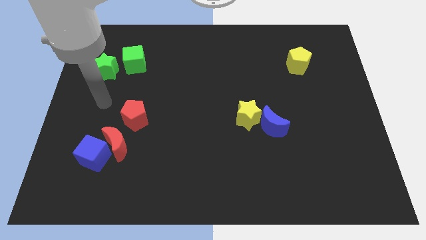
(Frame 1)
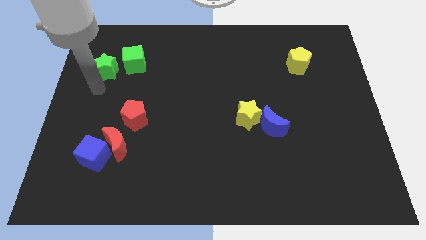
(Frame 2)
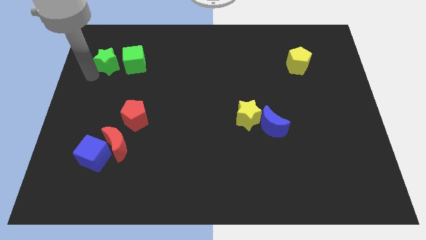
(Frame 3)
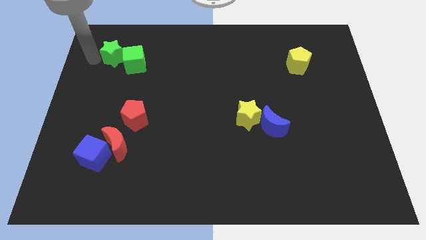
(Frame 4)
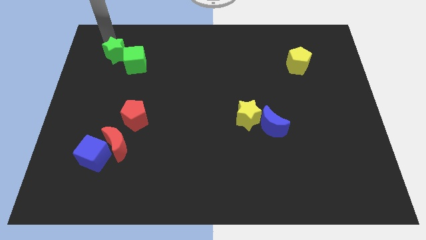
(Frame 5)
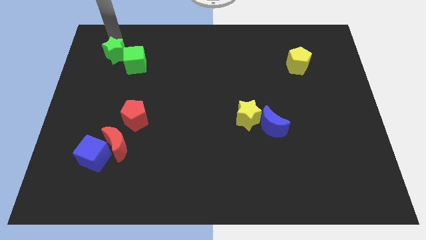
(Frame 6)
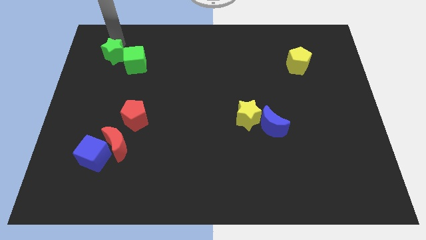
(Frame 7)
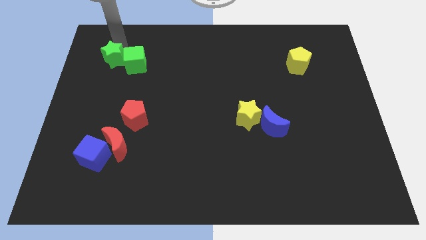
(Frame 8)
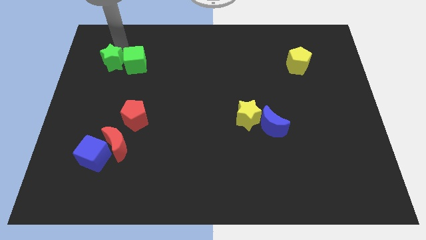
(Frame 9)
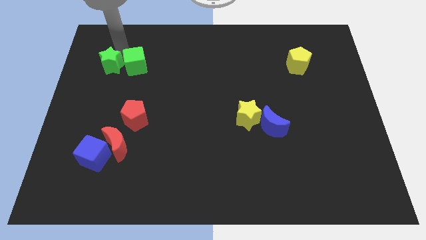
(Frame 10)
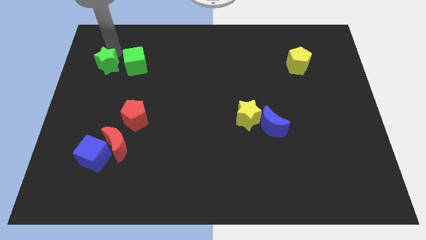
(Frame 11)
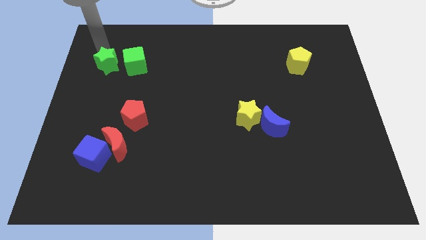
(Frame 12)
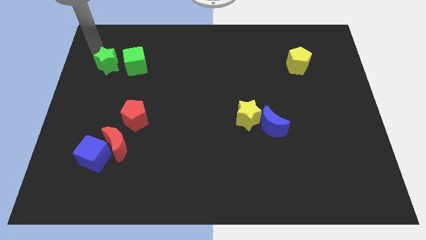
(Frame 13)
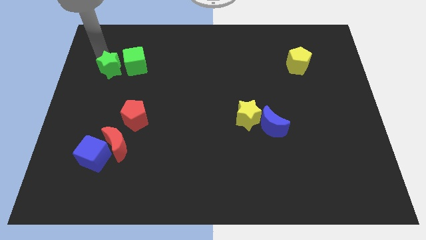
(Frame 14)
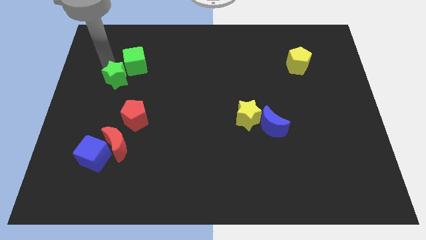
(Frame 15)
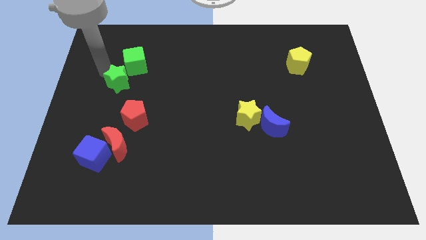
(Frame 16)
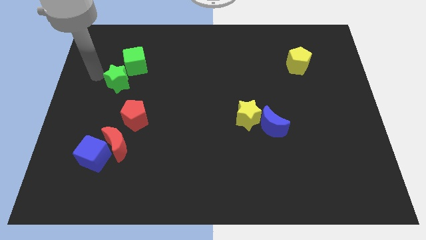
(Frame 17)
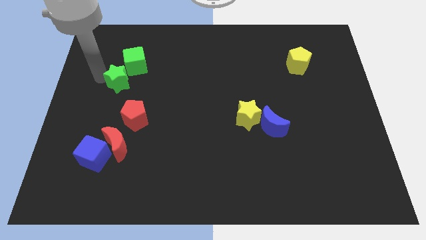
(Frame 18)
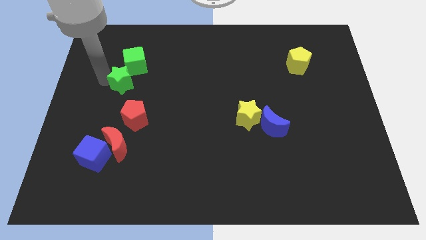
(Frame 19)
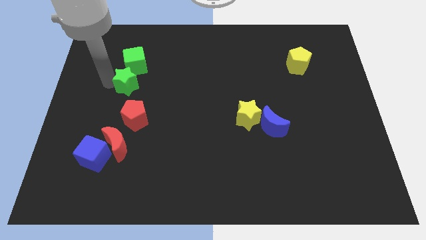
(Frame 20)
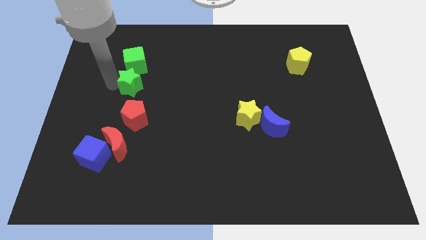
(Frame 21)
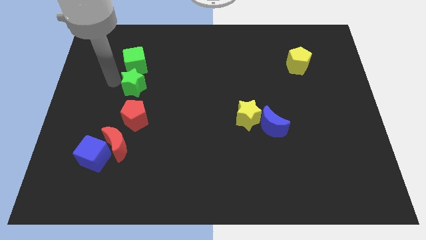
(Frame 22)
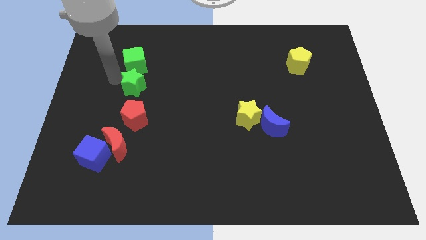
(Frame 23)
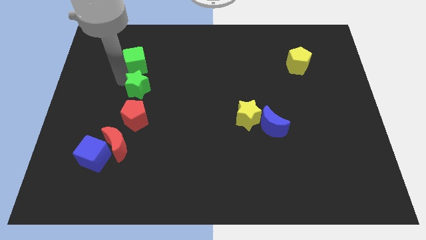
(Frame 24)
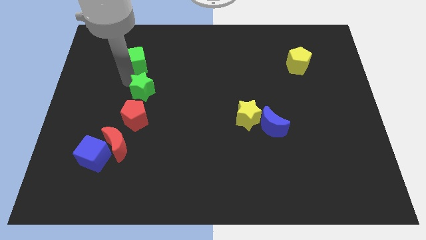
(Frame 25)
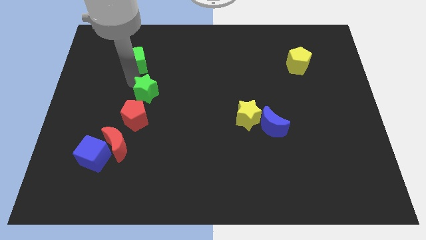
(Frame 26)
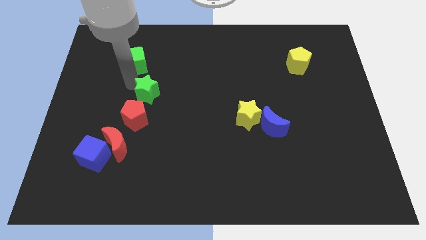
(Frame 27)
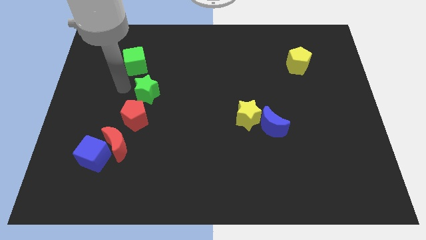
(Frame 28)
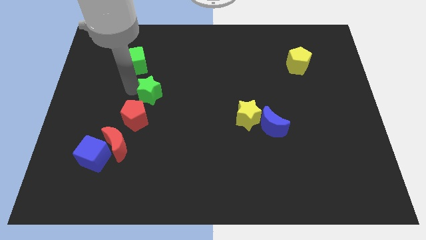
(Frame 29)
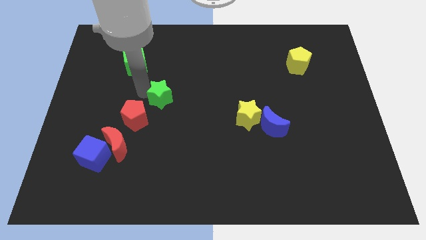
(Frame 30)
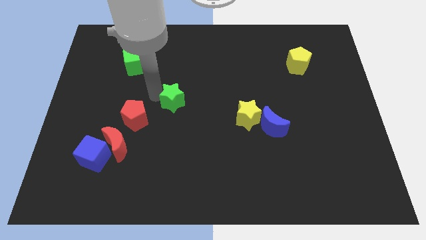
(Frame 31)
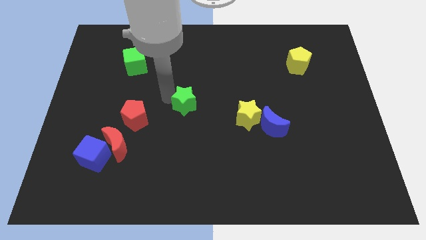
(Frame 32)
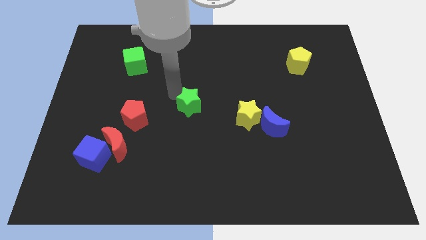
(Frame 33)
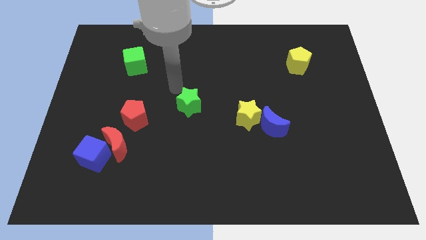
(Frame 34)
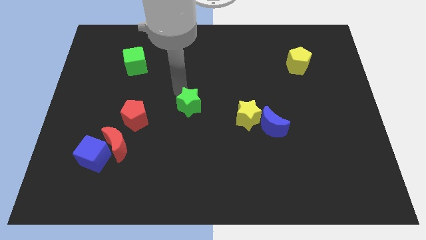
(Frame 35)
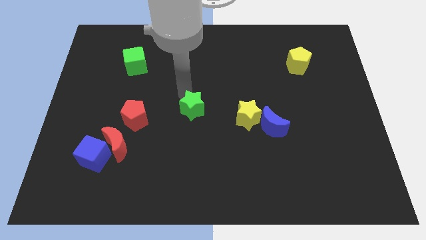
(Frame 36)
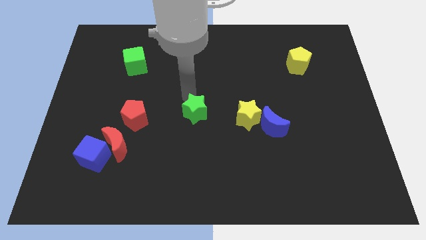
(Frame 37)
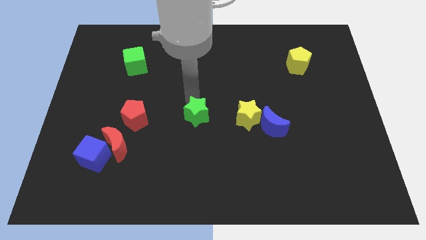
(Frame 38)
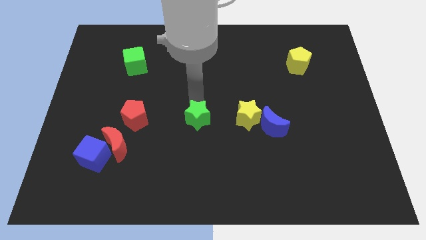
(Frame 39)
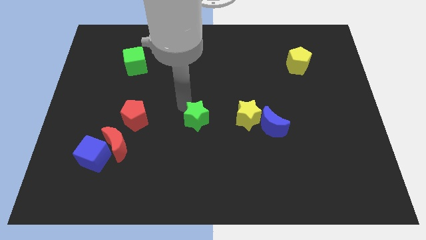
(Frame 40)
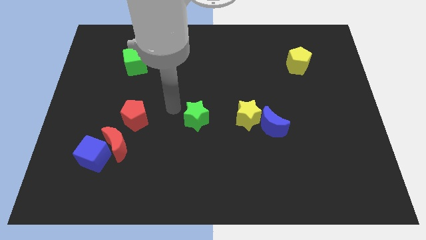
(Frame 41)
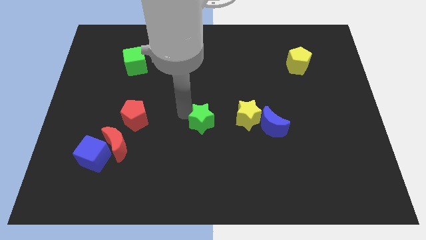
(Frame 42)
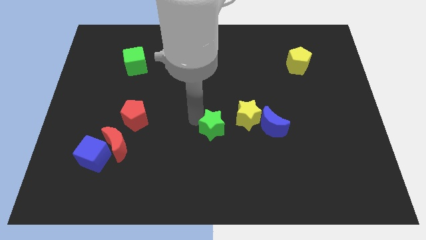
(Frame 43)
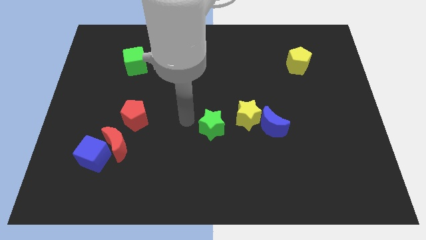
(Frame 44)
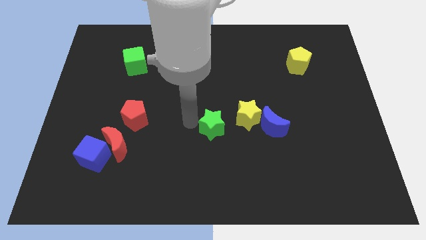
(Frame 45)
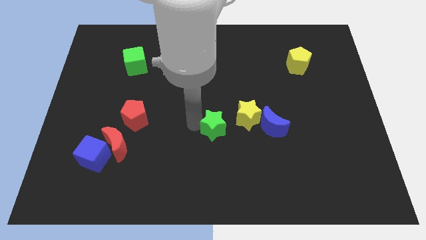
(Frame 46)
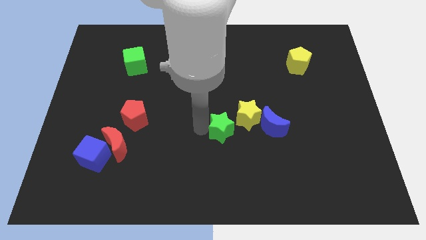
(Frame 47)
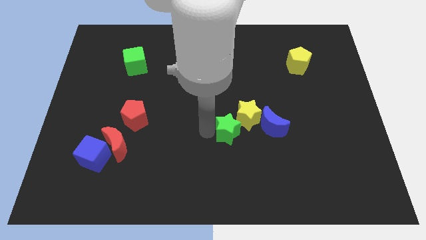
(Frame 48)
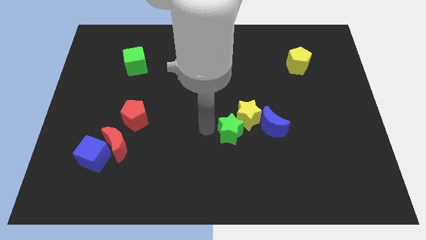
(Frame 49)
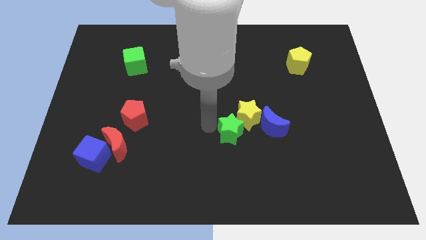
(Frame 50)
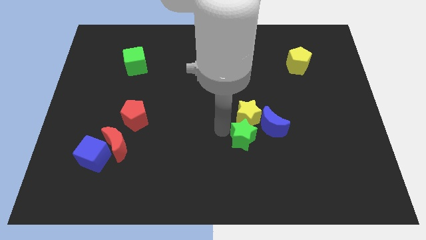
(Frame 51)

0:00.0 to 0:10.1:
push the green star to the bottom right side of the yellow star

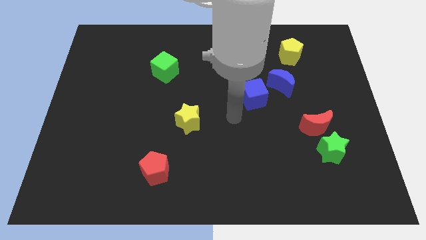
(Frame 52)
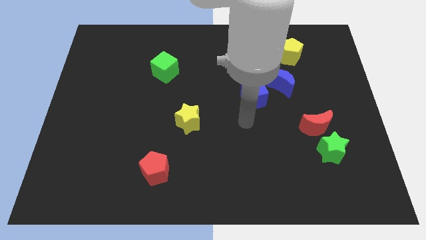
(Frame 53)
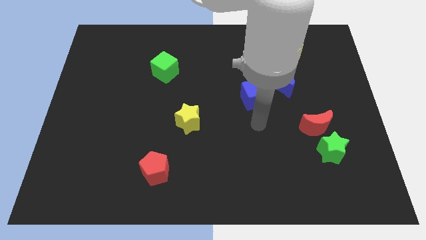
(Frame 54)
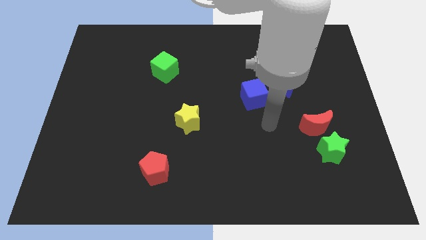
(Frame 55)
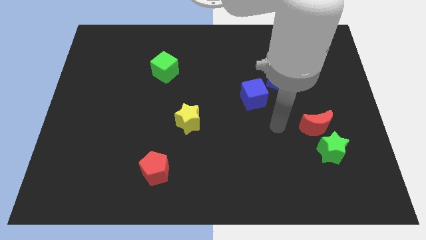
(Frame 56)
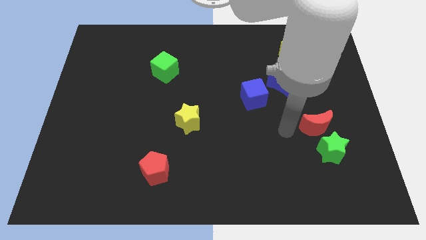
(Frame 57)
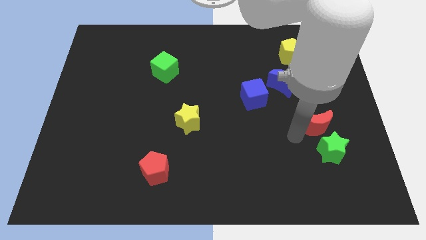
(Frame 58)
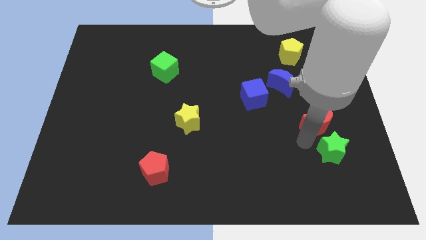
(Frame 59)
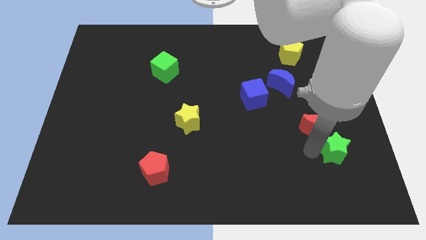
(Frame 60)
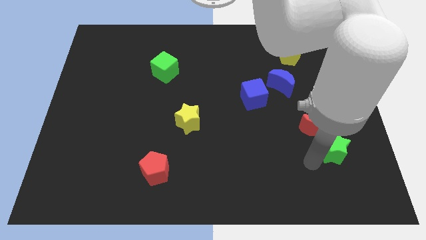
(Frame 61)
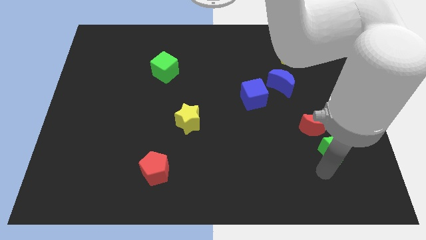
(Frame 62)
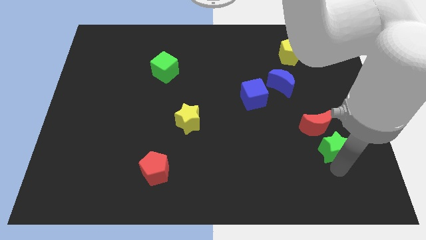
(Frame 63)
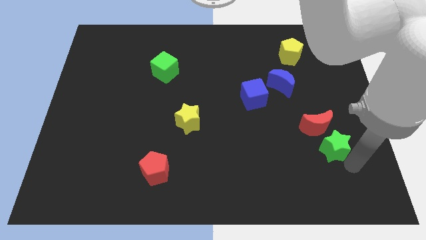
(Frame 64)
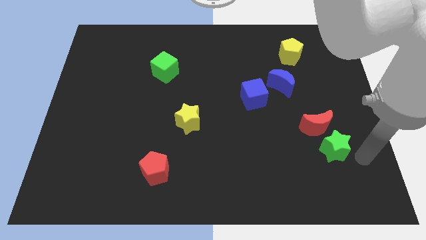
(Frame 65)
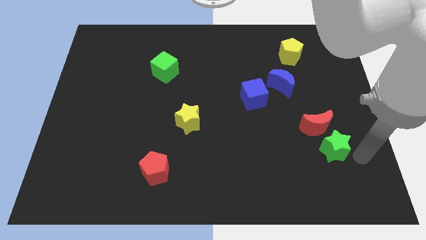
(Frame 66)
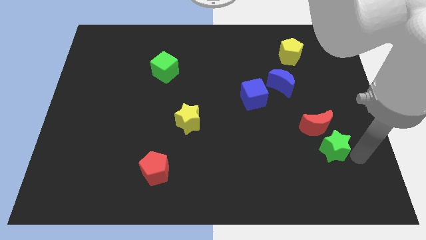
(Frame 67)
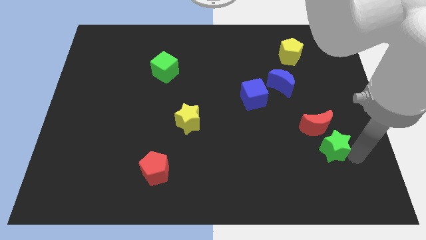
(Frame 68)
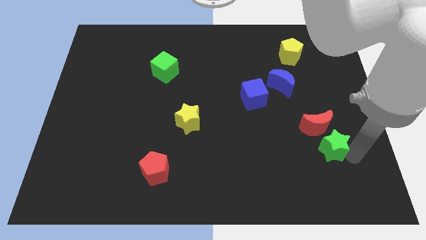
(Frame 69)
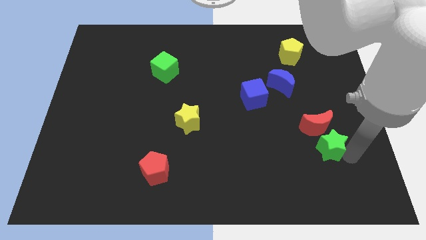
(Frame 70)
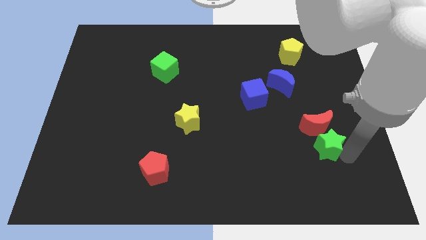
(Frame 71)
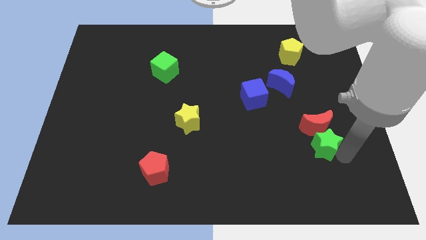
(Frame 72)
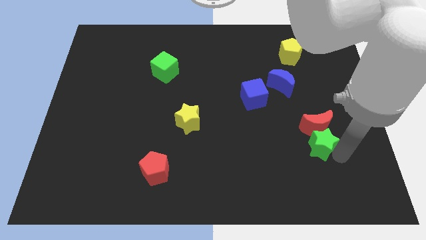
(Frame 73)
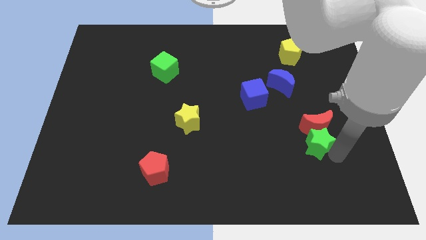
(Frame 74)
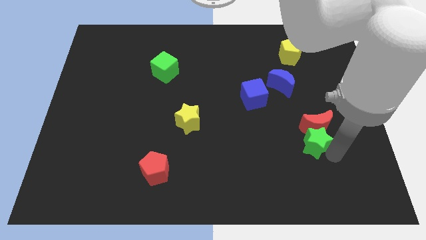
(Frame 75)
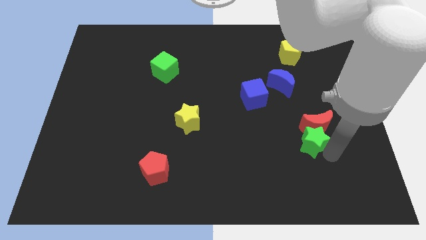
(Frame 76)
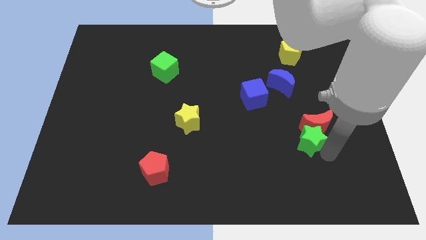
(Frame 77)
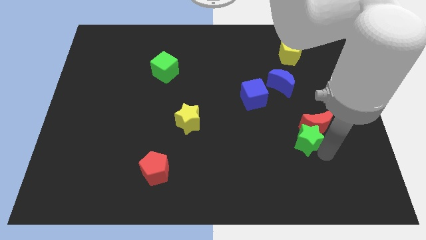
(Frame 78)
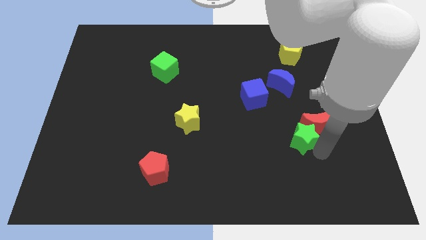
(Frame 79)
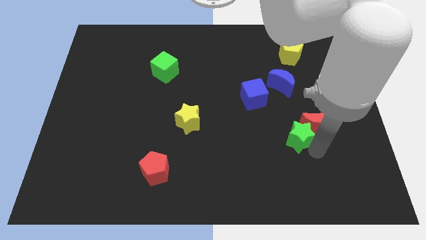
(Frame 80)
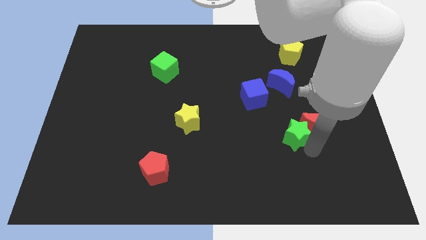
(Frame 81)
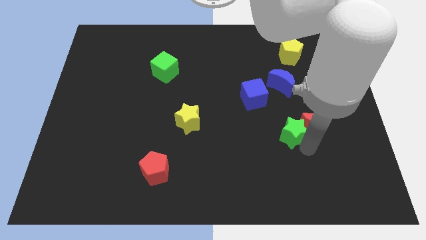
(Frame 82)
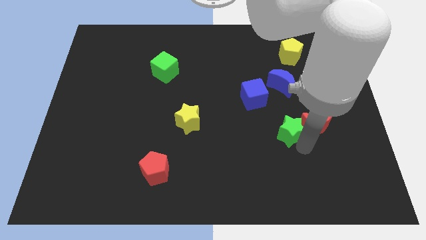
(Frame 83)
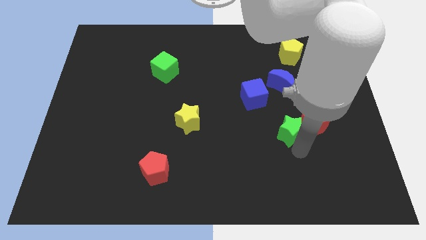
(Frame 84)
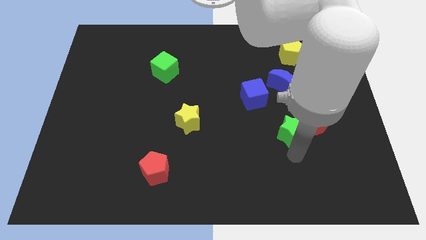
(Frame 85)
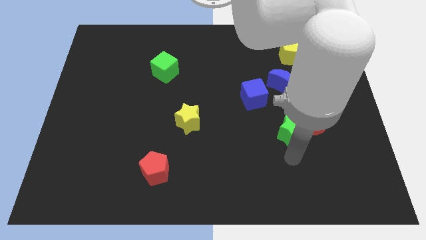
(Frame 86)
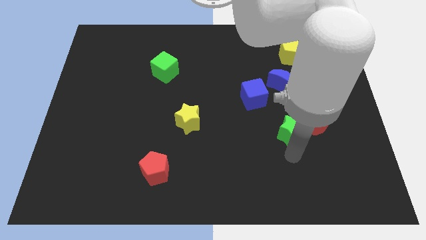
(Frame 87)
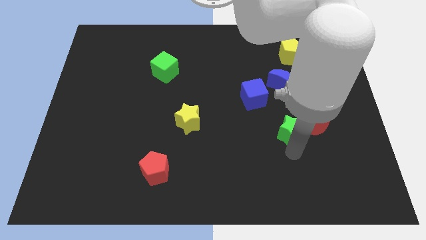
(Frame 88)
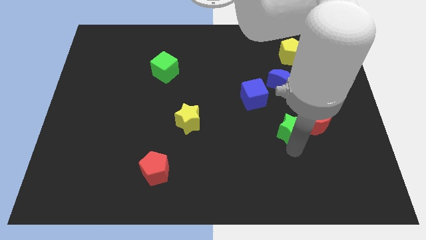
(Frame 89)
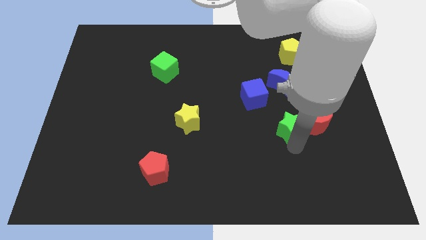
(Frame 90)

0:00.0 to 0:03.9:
slide the green star diagonally up and to the left of the red moon
